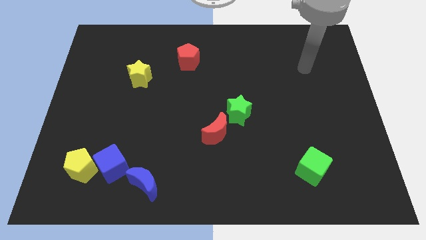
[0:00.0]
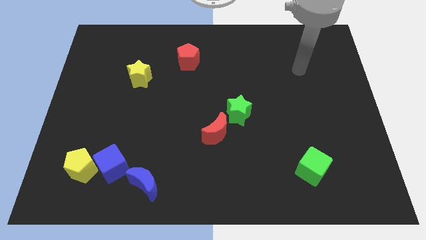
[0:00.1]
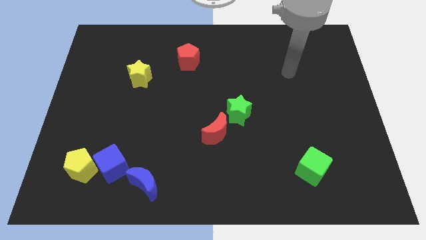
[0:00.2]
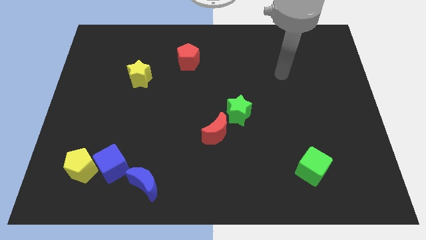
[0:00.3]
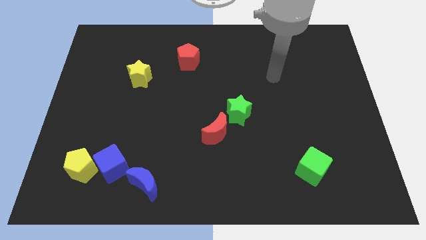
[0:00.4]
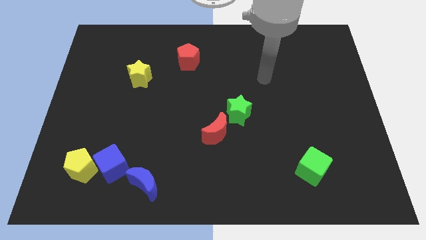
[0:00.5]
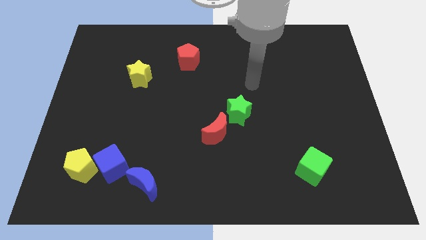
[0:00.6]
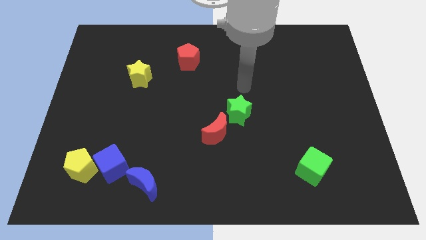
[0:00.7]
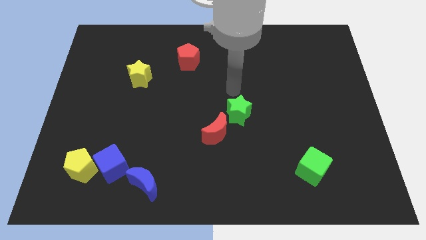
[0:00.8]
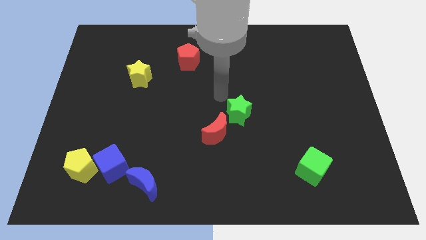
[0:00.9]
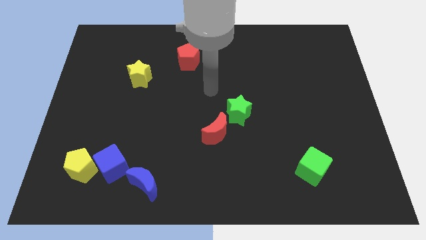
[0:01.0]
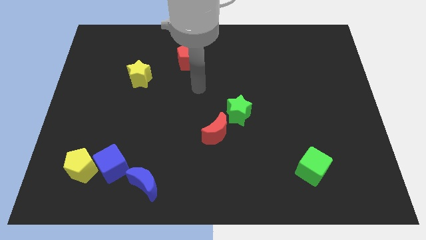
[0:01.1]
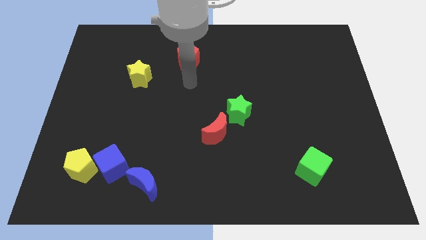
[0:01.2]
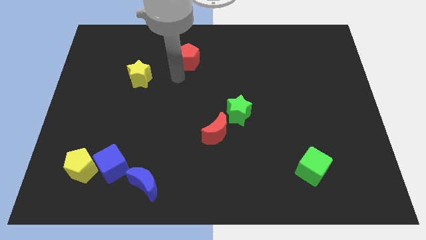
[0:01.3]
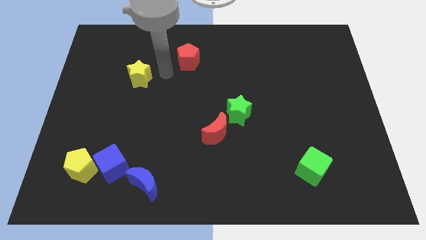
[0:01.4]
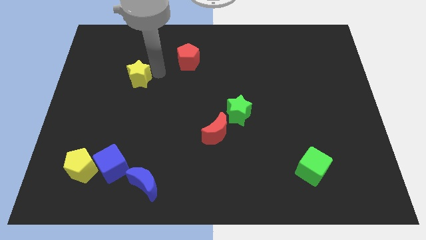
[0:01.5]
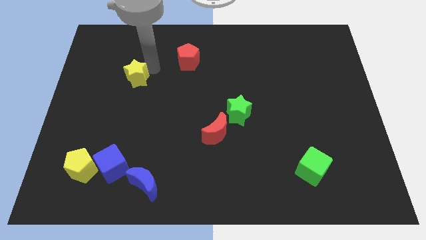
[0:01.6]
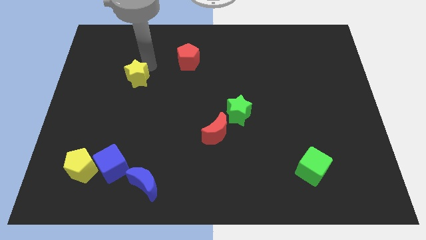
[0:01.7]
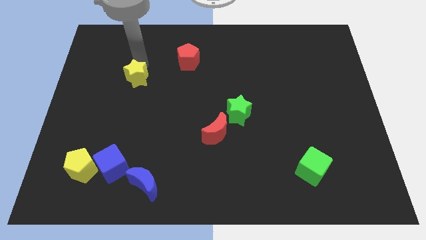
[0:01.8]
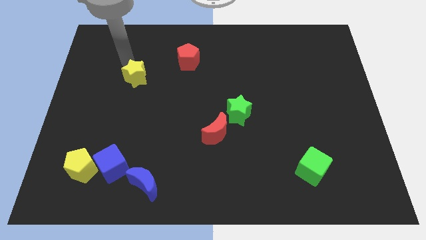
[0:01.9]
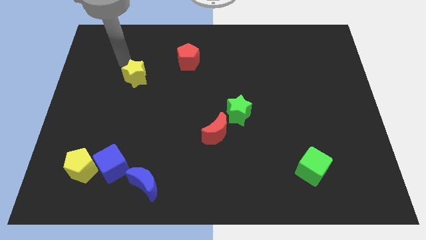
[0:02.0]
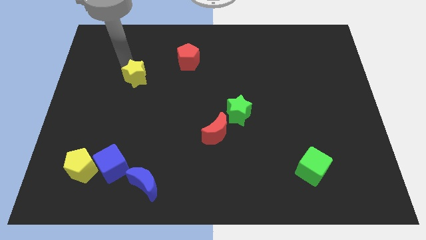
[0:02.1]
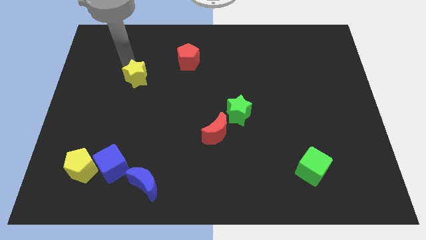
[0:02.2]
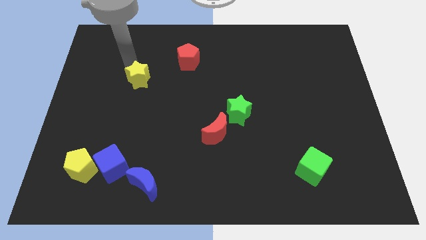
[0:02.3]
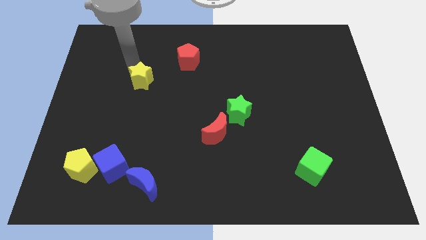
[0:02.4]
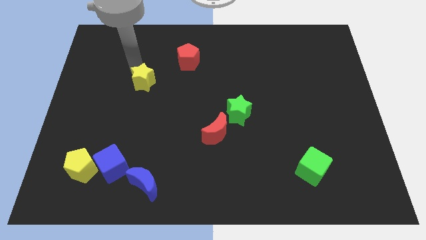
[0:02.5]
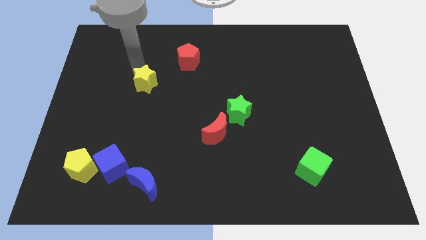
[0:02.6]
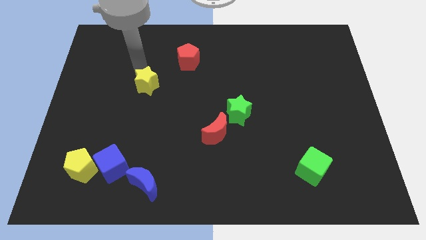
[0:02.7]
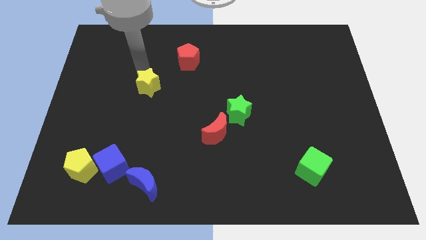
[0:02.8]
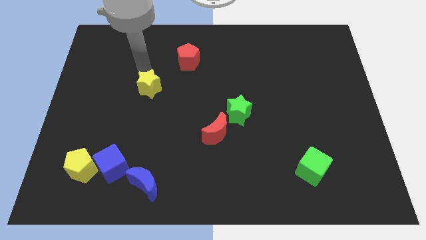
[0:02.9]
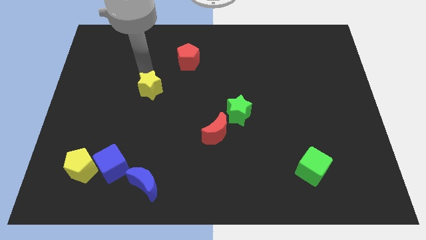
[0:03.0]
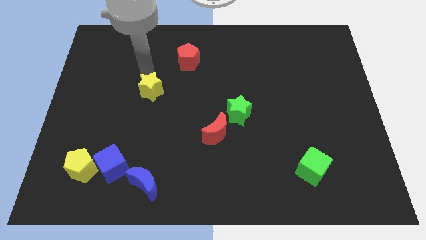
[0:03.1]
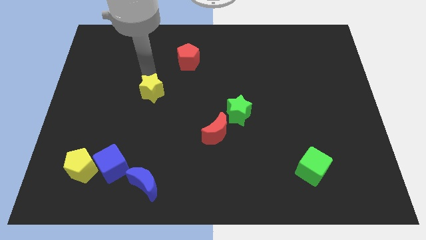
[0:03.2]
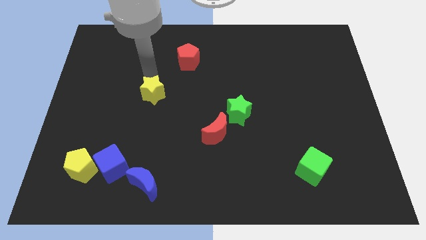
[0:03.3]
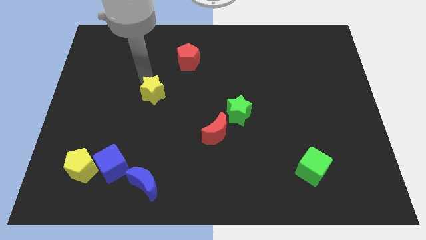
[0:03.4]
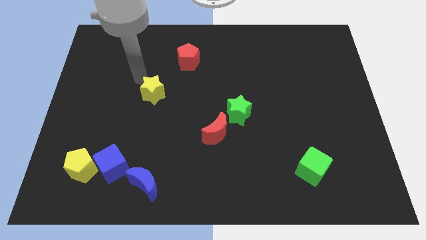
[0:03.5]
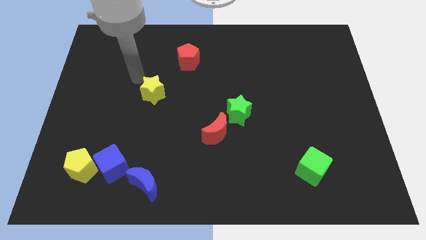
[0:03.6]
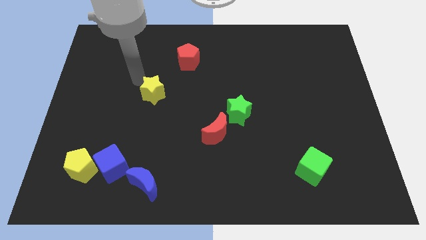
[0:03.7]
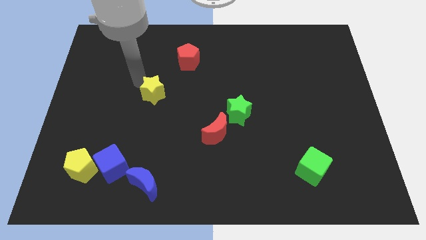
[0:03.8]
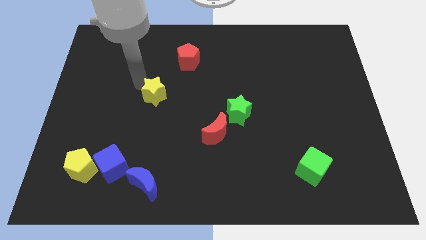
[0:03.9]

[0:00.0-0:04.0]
slightly move the yellow star downwards and right

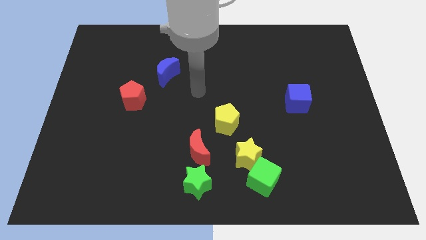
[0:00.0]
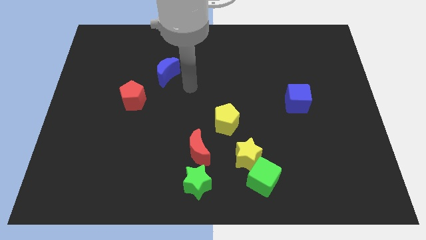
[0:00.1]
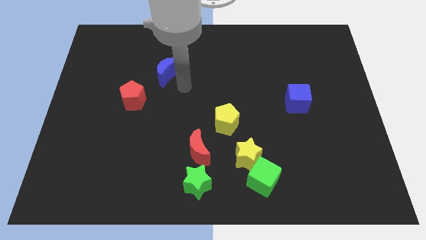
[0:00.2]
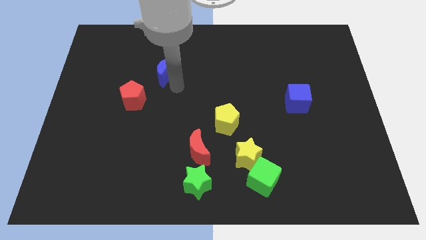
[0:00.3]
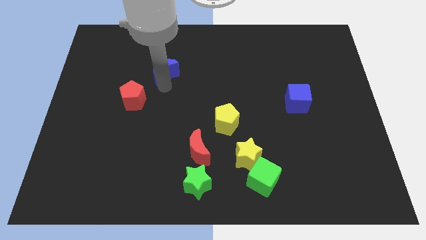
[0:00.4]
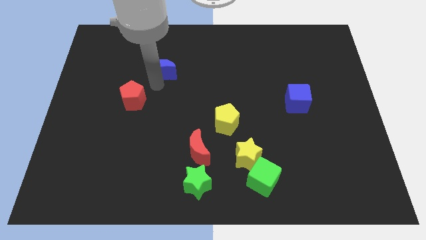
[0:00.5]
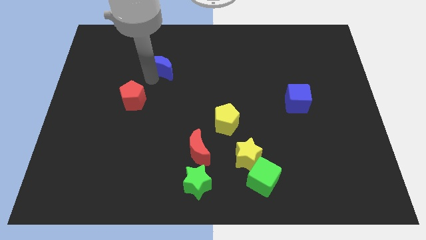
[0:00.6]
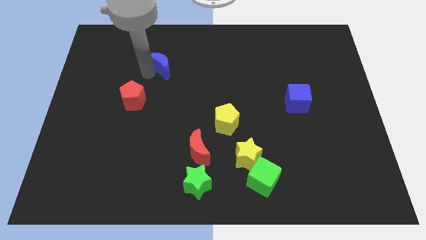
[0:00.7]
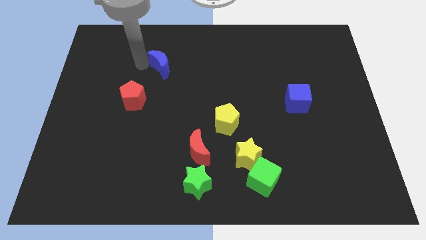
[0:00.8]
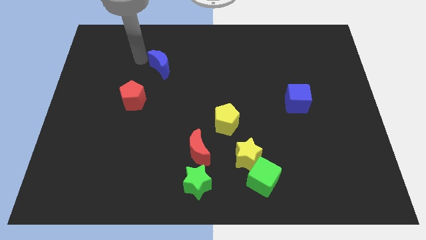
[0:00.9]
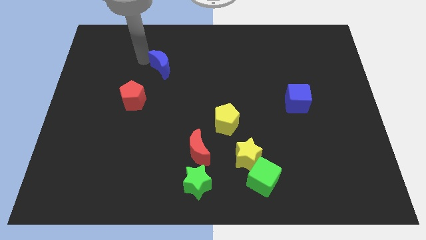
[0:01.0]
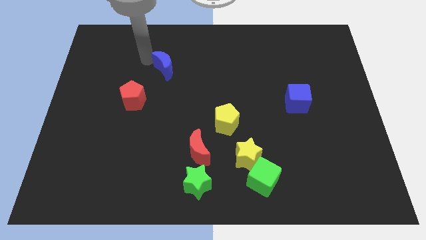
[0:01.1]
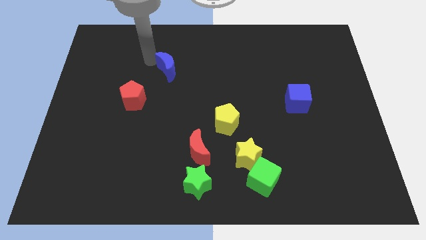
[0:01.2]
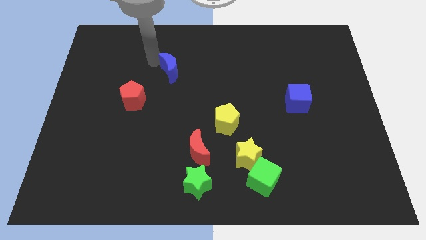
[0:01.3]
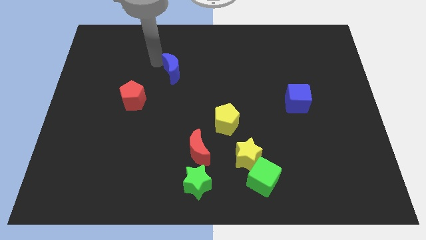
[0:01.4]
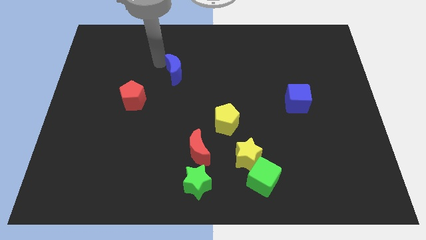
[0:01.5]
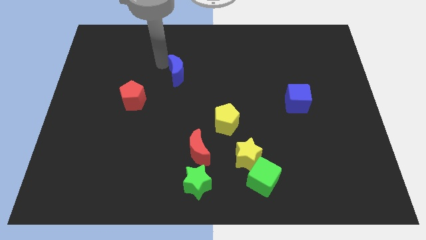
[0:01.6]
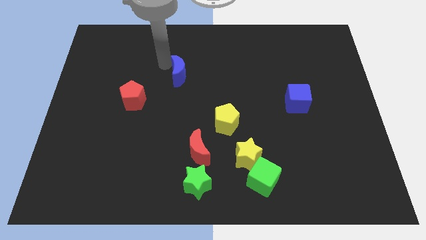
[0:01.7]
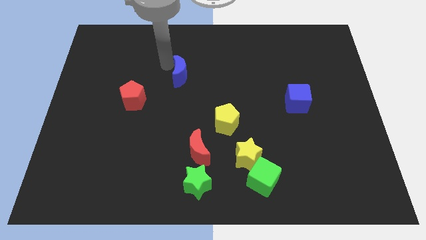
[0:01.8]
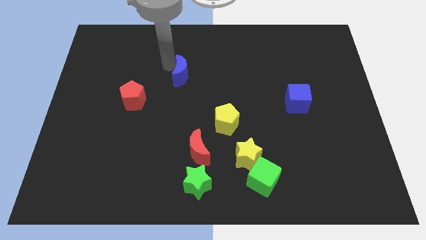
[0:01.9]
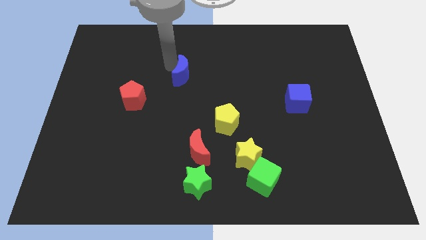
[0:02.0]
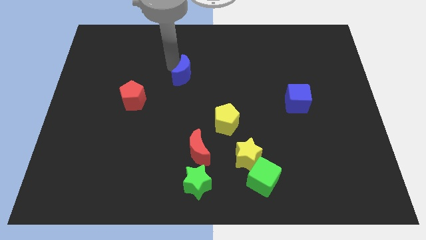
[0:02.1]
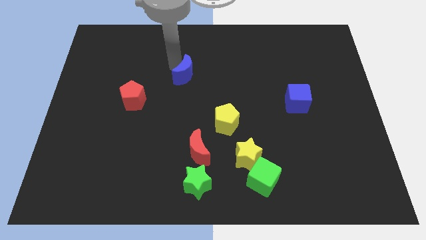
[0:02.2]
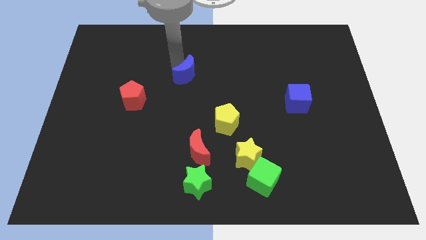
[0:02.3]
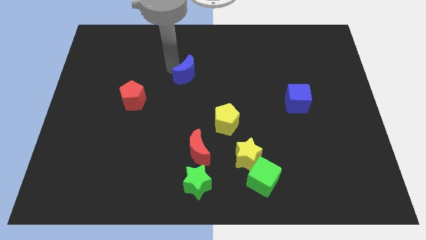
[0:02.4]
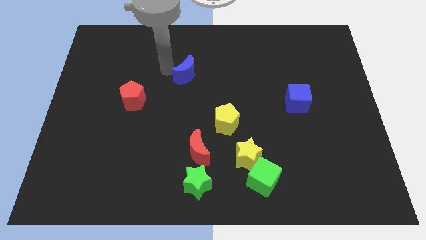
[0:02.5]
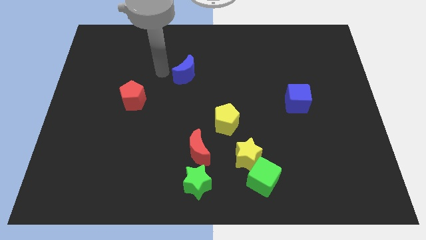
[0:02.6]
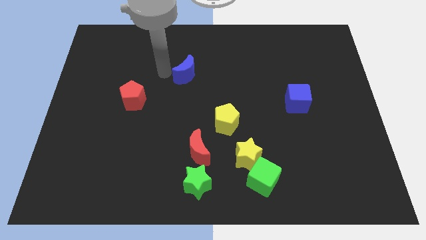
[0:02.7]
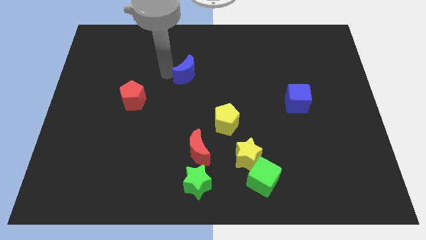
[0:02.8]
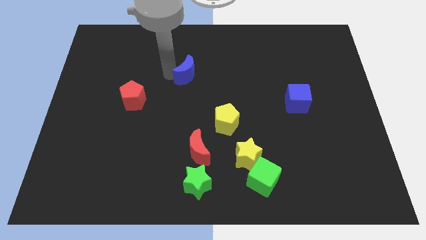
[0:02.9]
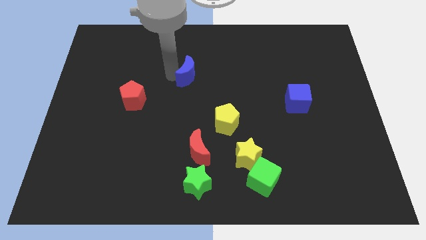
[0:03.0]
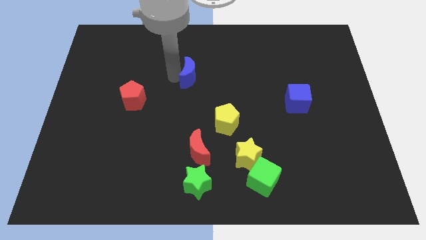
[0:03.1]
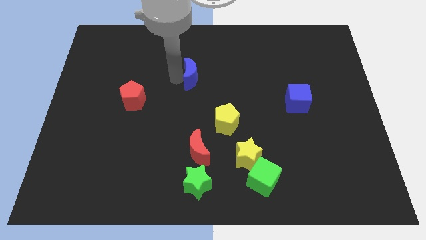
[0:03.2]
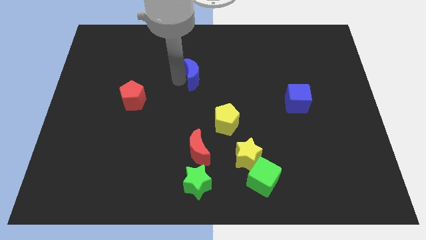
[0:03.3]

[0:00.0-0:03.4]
push the blue moon slightly right

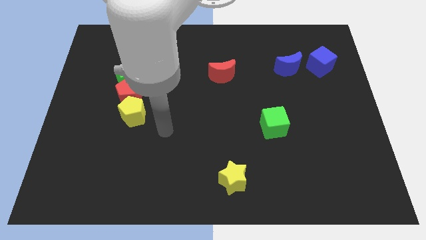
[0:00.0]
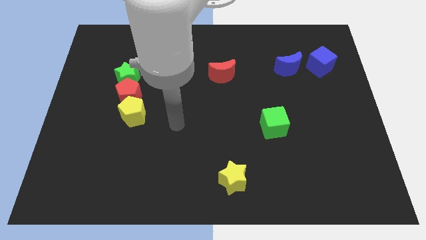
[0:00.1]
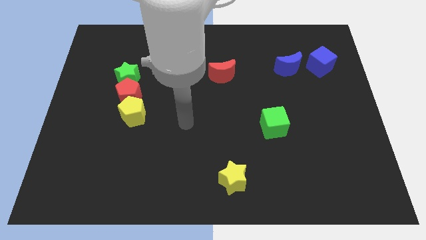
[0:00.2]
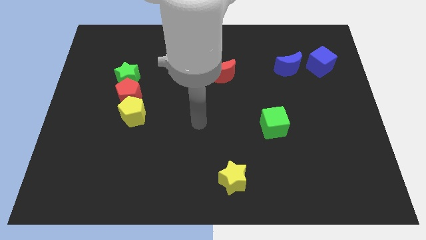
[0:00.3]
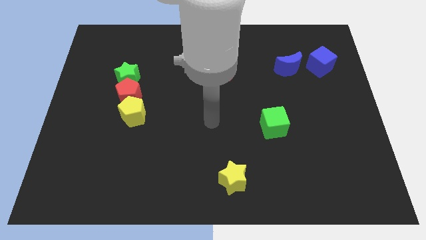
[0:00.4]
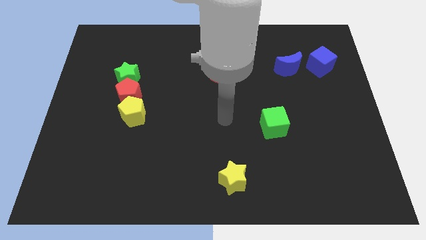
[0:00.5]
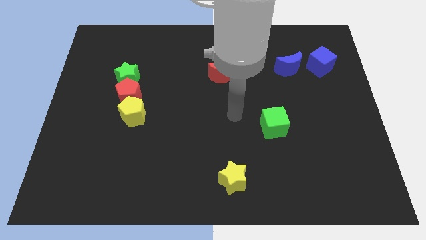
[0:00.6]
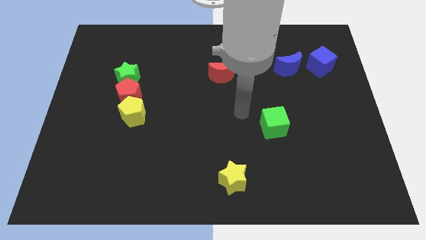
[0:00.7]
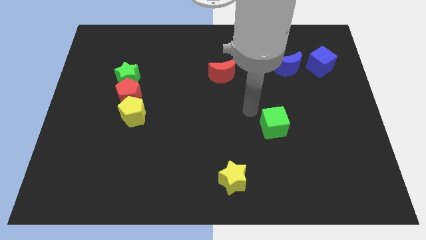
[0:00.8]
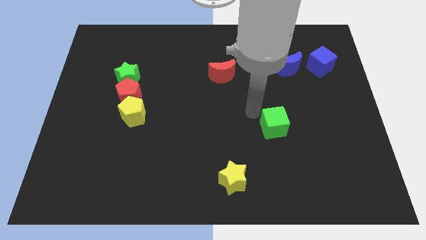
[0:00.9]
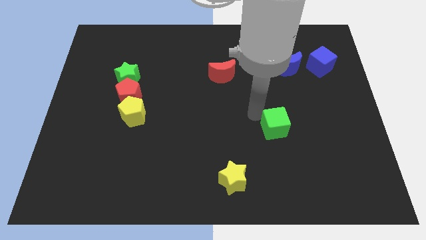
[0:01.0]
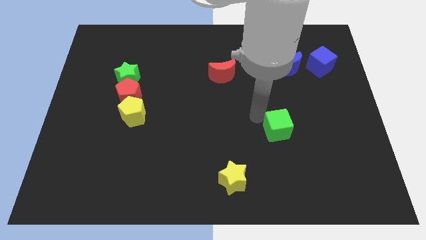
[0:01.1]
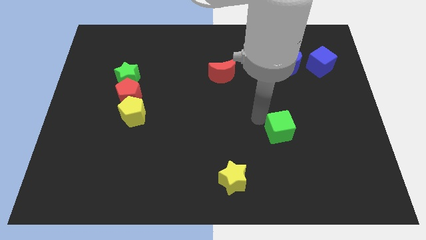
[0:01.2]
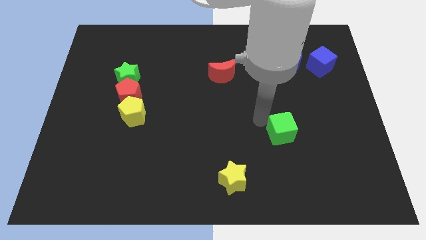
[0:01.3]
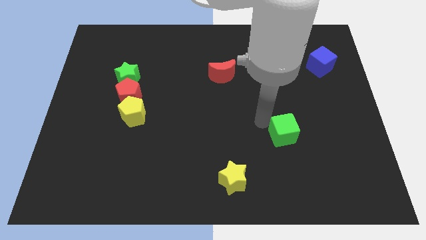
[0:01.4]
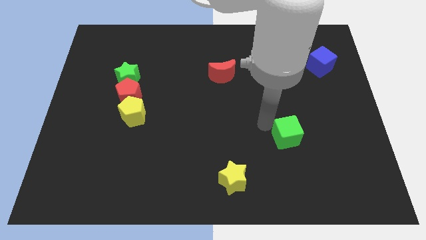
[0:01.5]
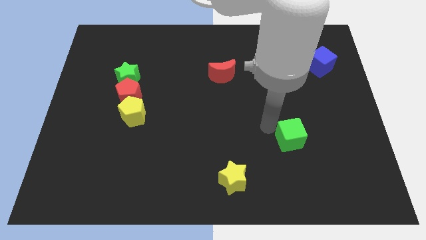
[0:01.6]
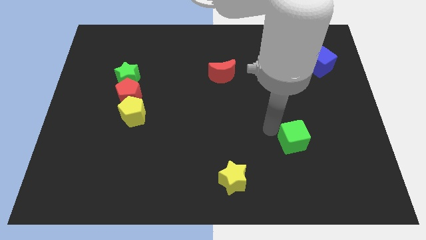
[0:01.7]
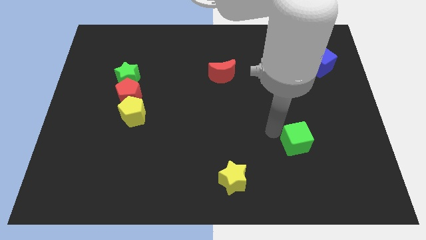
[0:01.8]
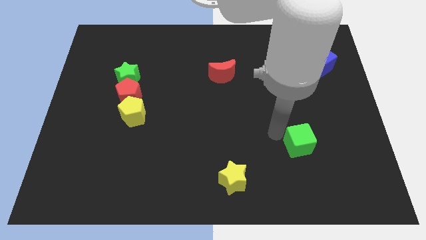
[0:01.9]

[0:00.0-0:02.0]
push the green cube downwards and right a little bit
